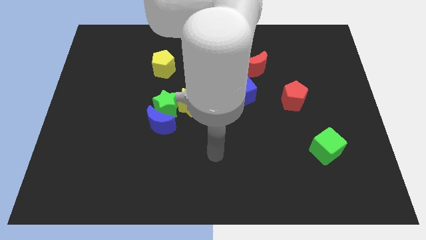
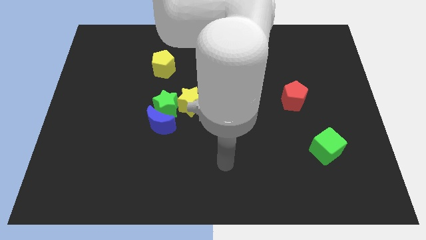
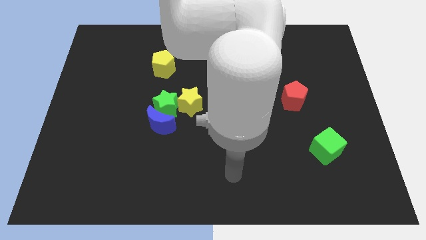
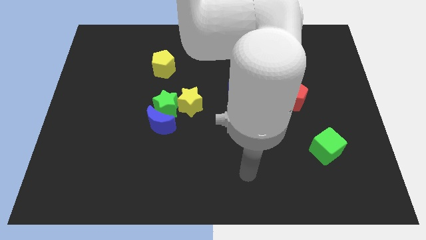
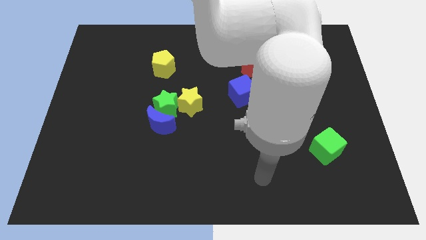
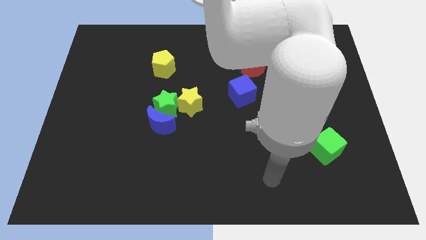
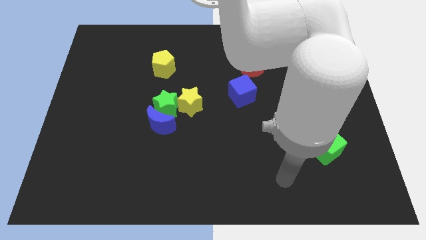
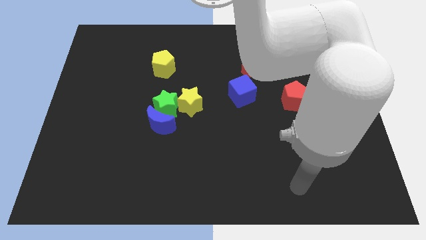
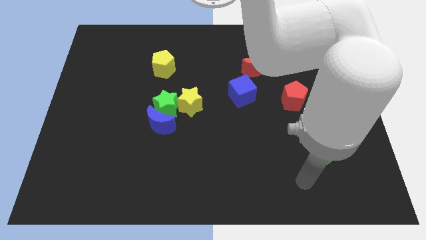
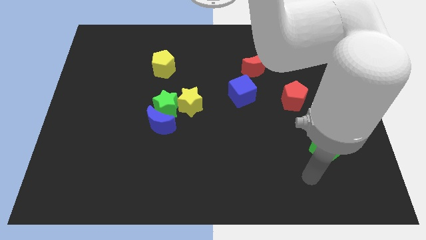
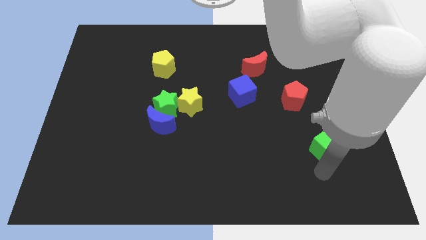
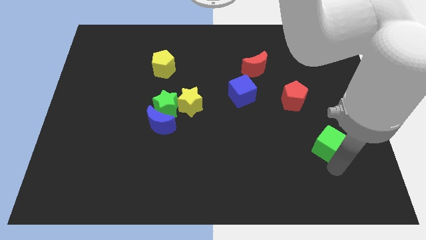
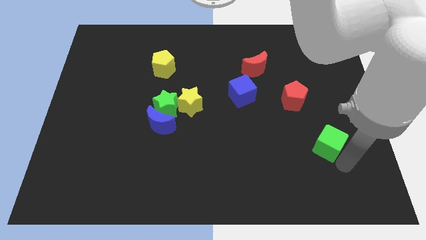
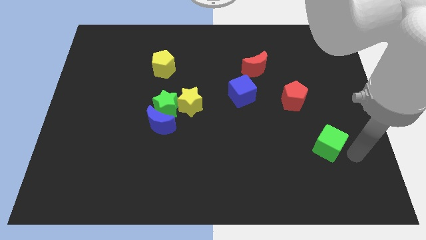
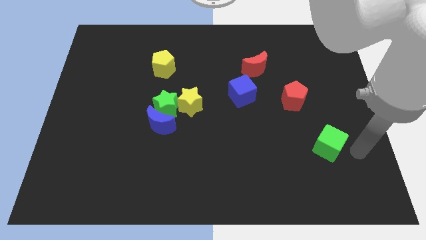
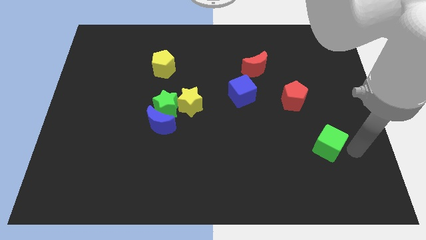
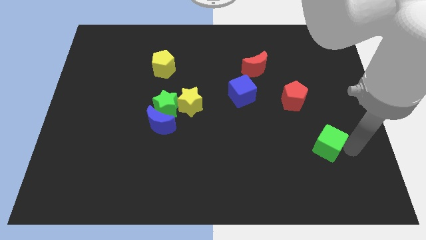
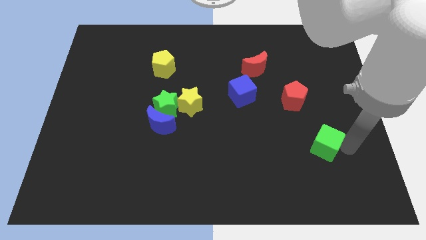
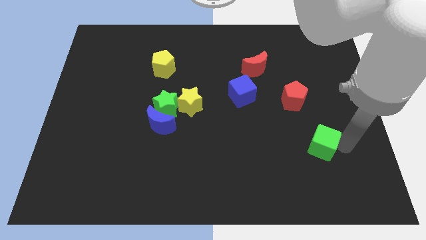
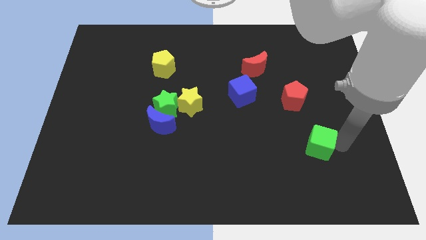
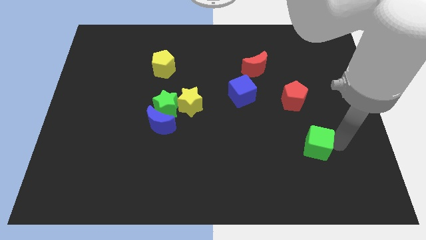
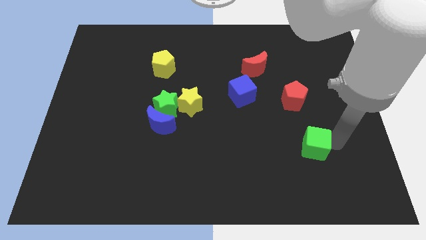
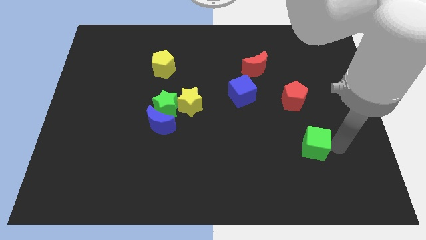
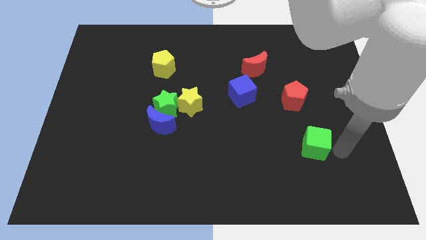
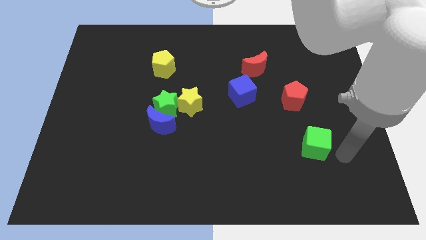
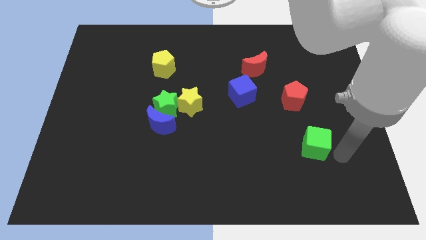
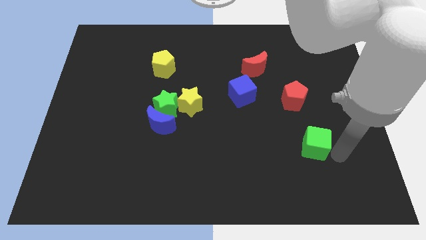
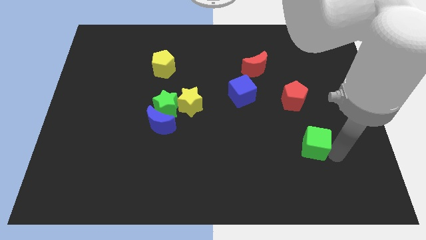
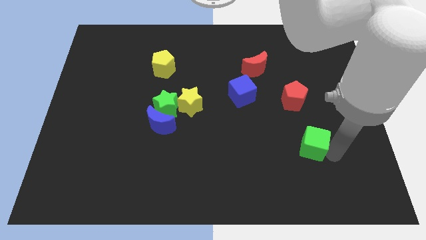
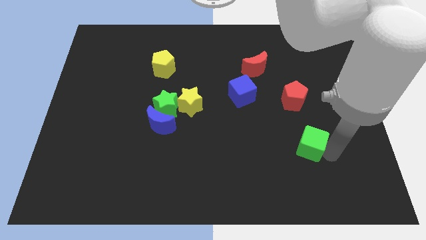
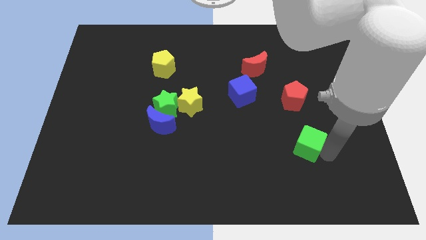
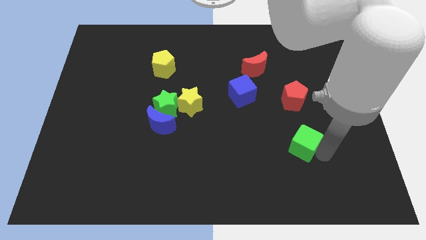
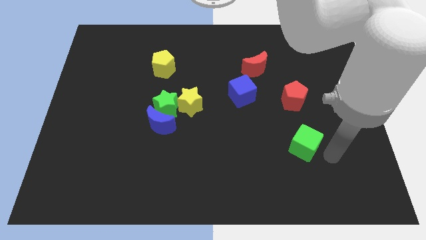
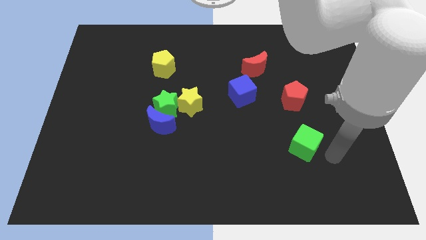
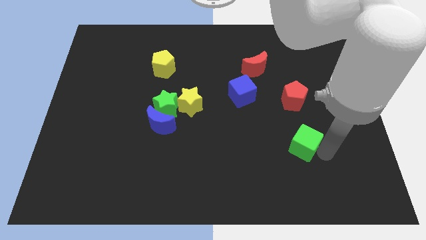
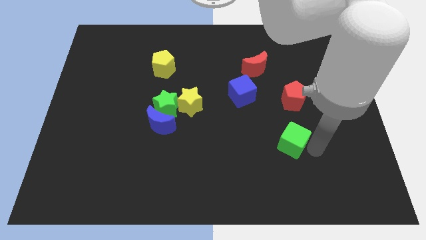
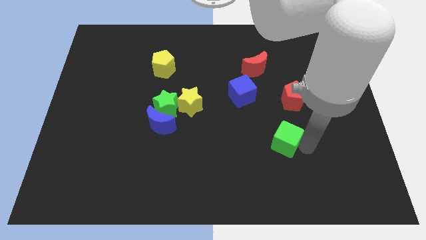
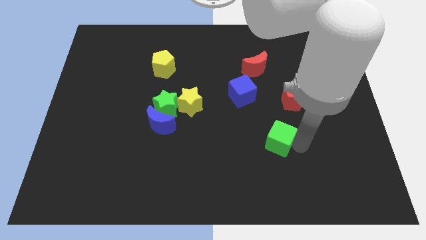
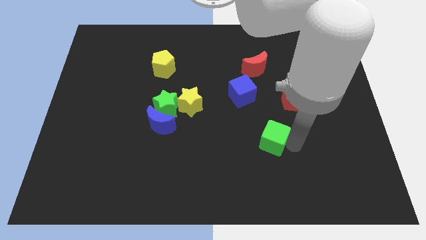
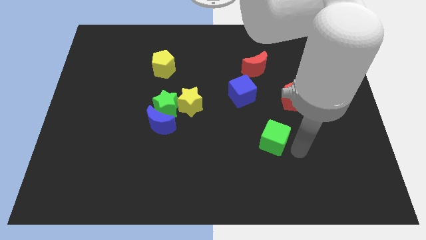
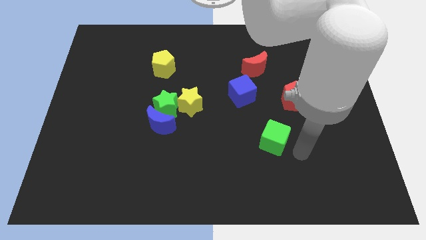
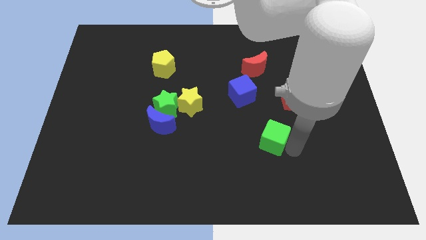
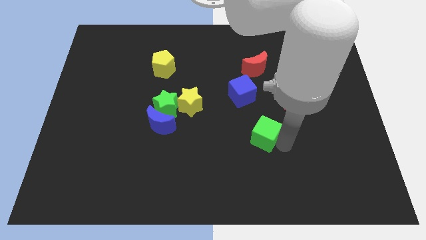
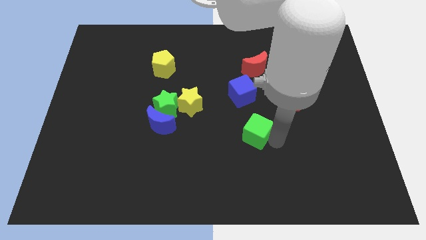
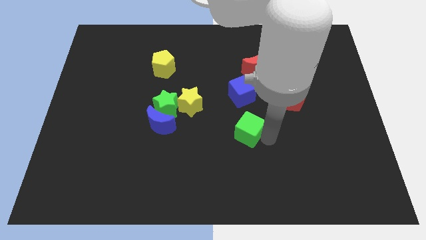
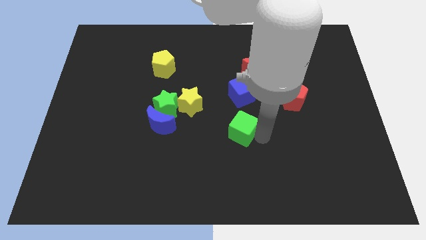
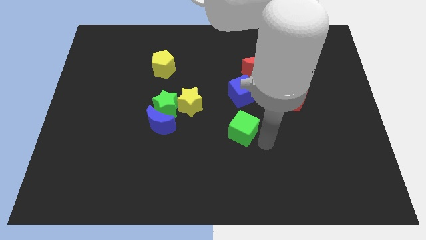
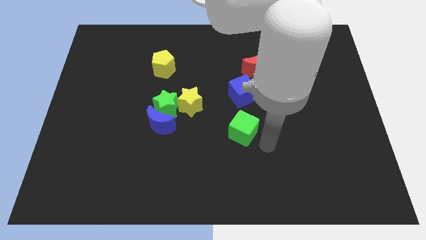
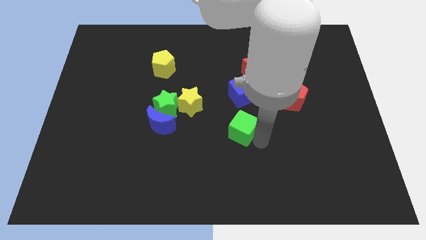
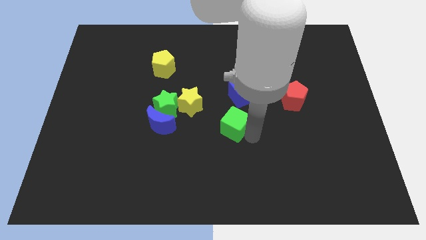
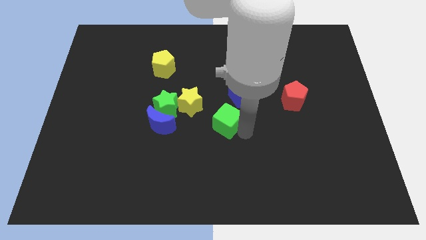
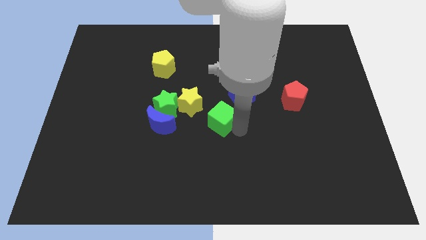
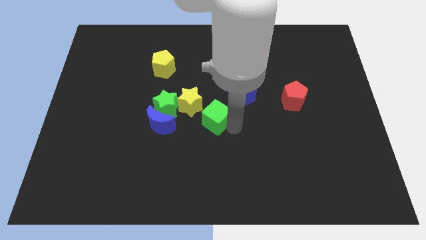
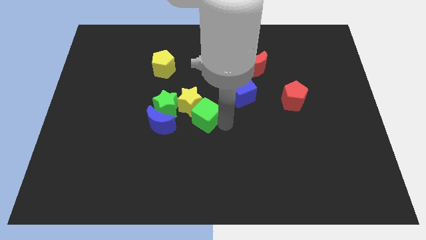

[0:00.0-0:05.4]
push the green cube towards the yellow star

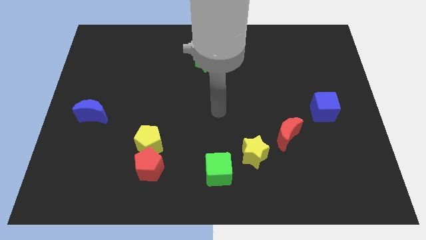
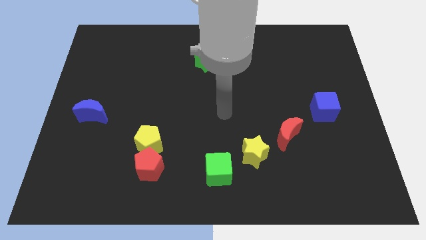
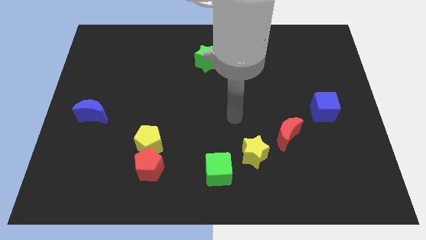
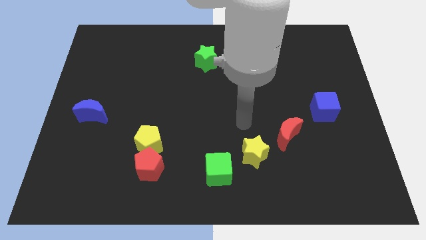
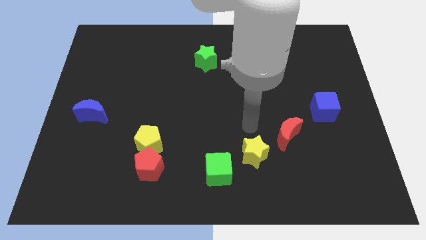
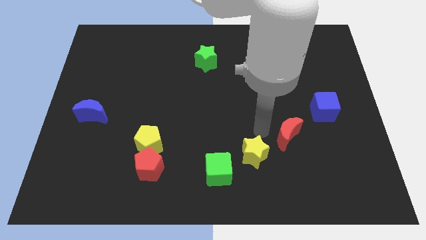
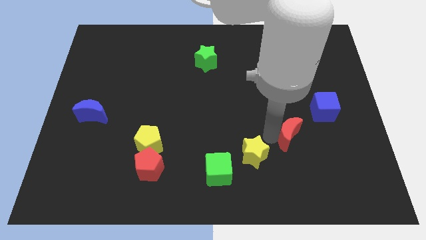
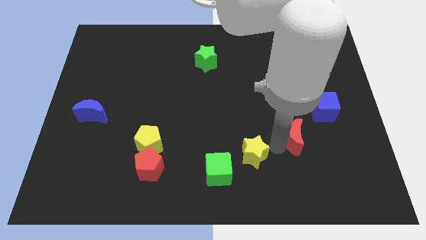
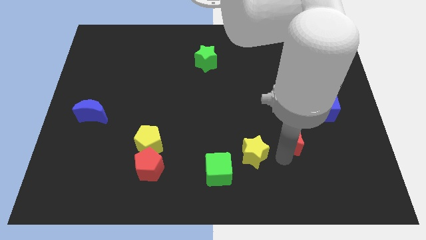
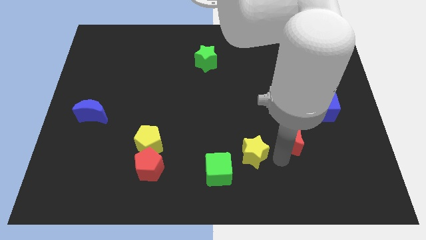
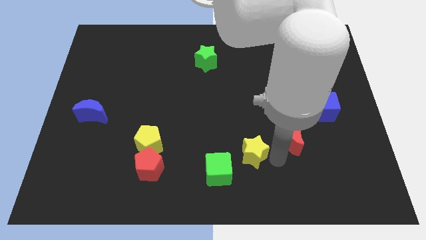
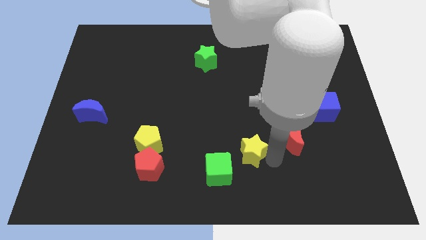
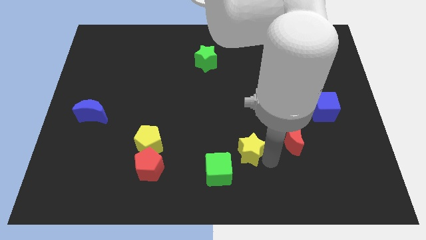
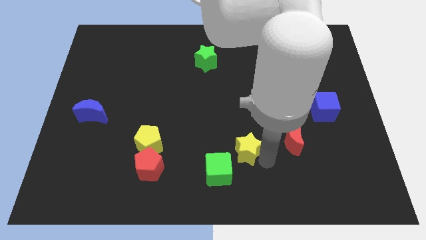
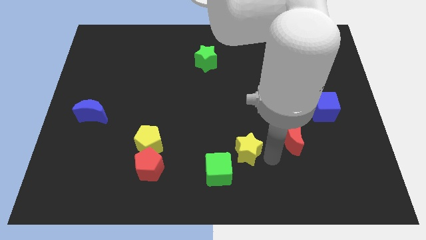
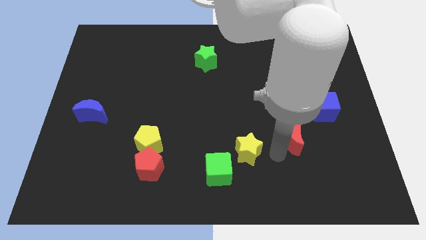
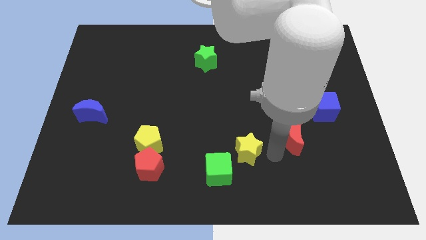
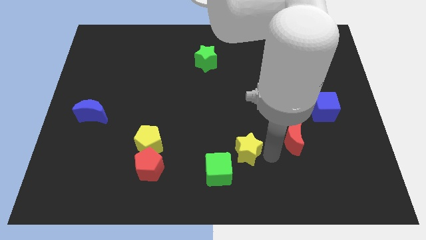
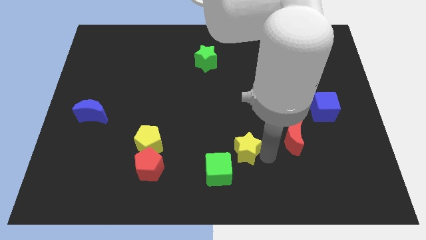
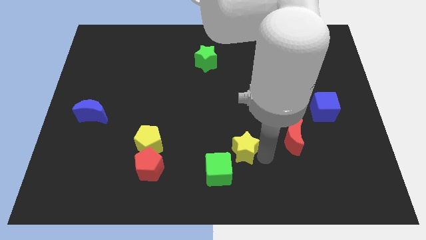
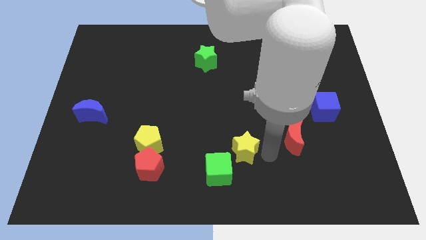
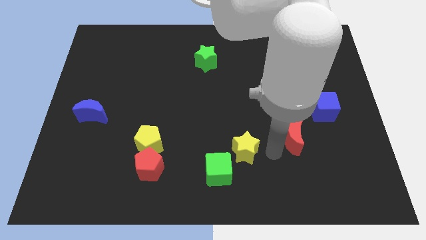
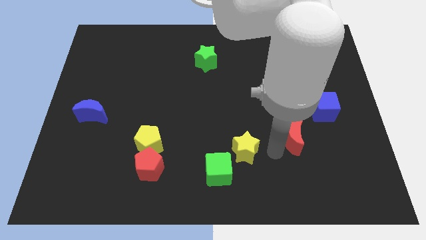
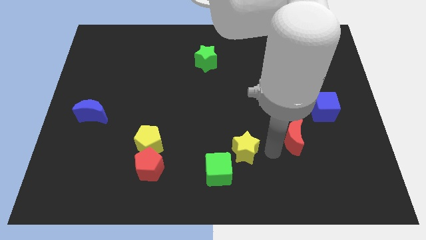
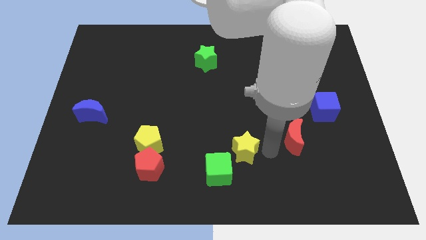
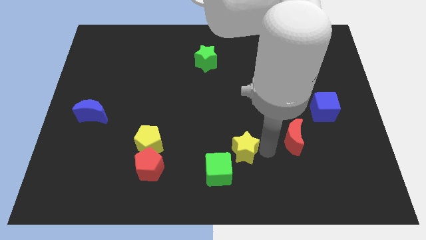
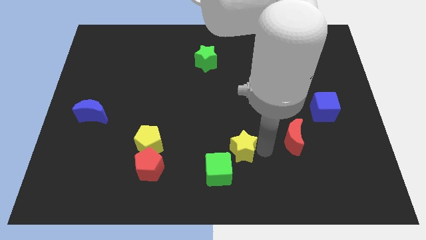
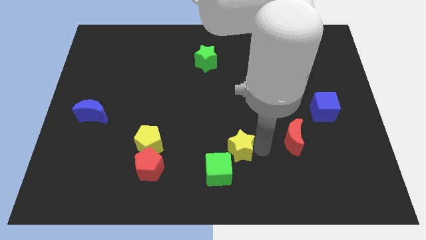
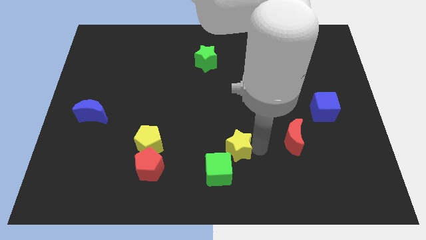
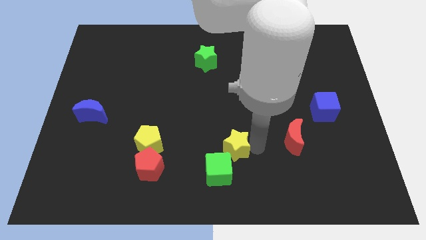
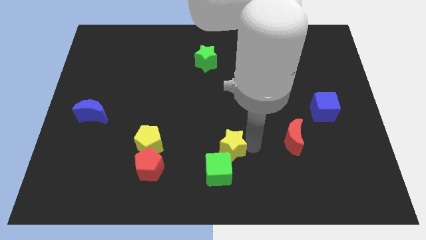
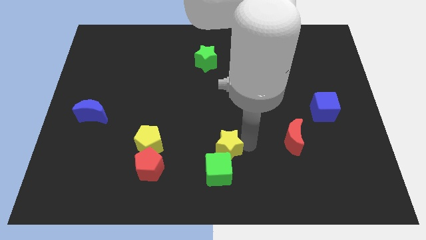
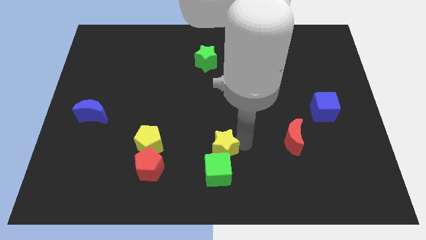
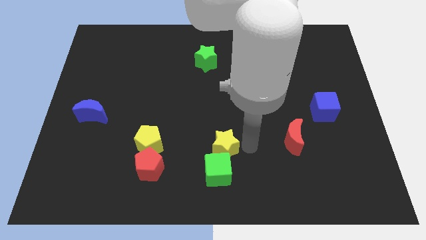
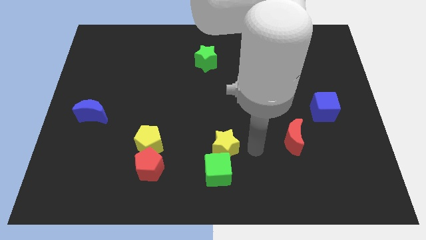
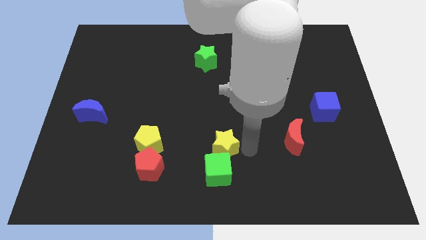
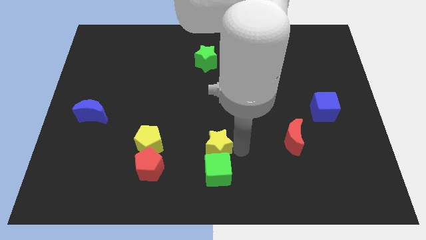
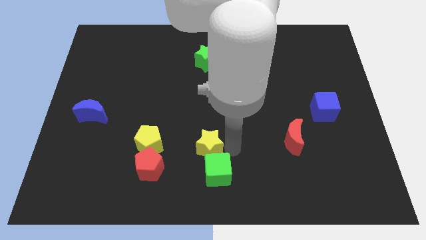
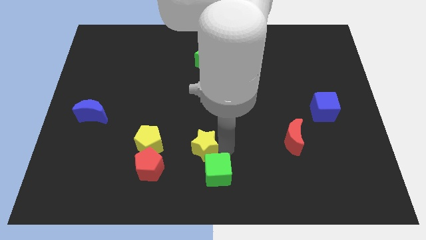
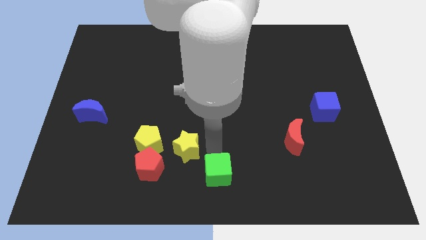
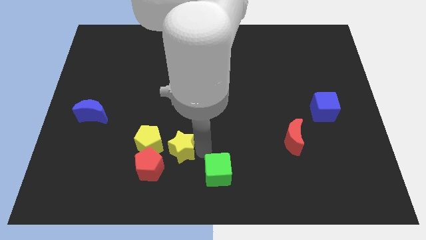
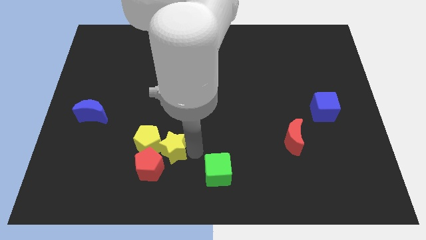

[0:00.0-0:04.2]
move the yellow star next to the yellow pentagon
